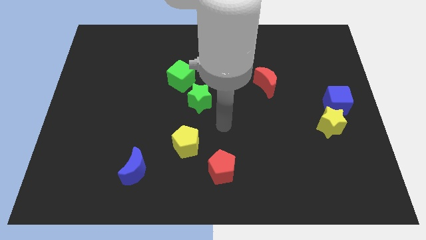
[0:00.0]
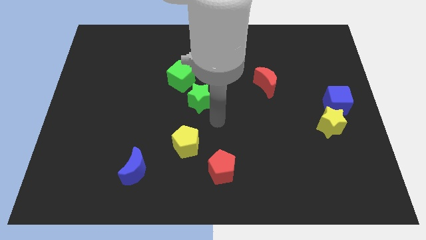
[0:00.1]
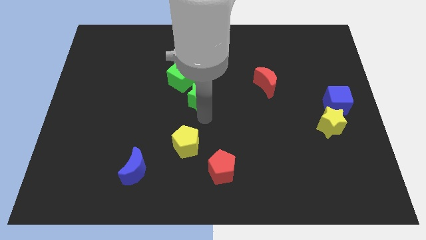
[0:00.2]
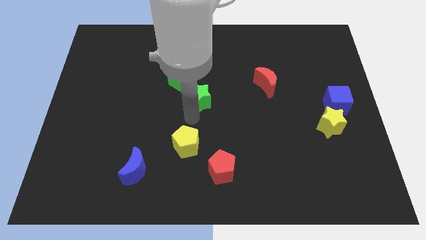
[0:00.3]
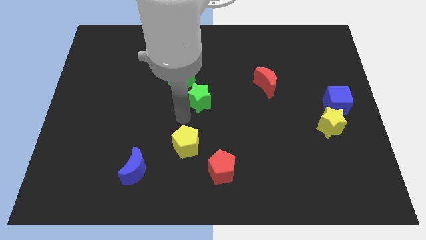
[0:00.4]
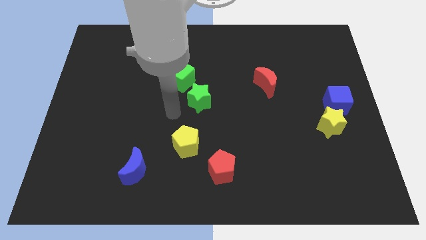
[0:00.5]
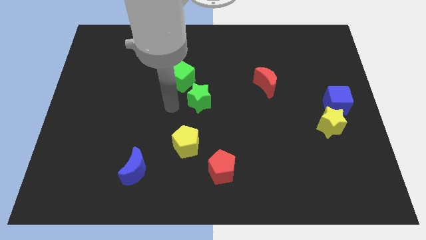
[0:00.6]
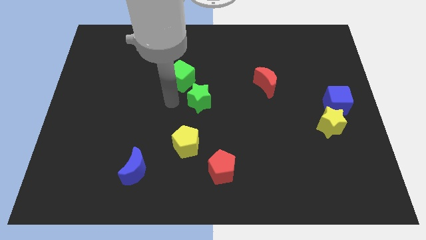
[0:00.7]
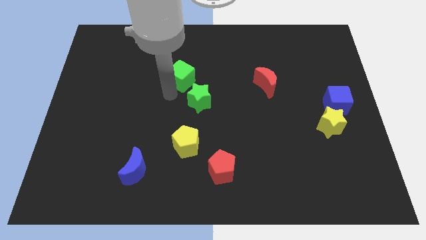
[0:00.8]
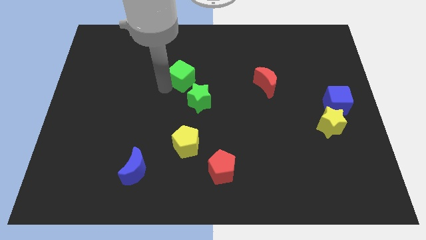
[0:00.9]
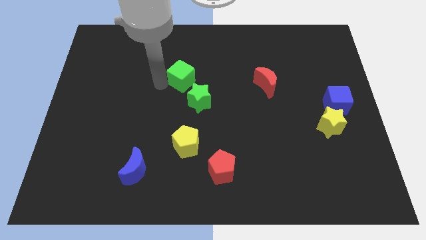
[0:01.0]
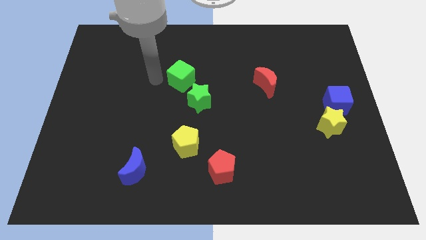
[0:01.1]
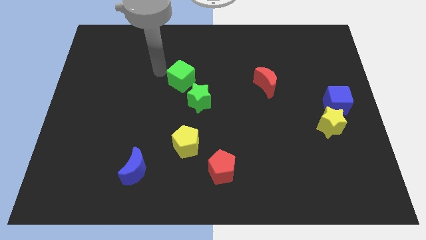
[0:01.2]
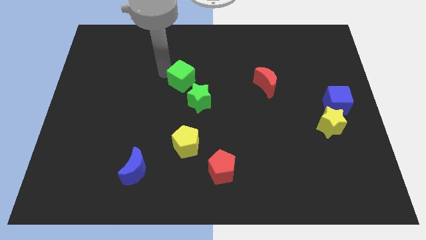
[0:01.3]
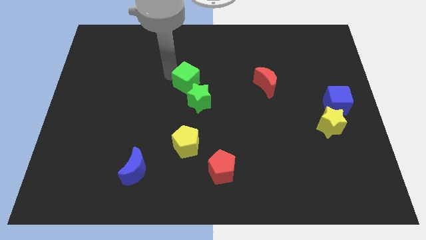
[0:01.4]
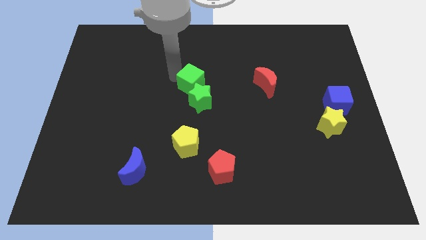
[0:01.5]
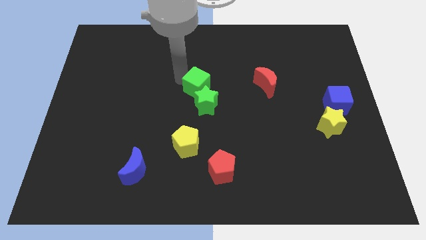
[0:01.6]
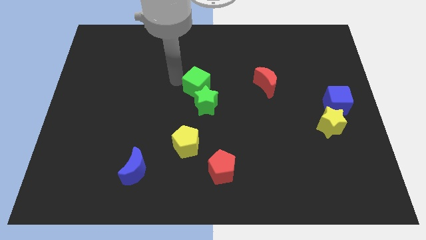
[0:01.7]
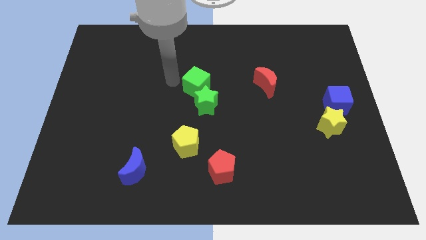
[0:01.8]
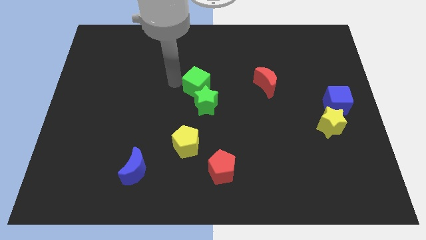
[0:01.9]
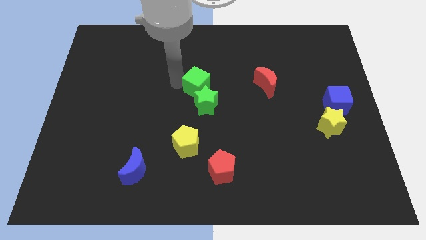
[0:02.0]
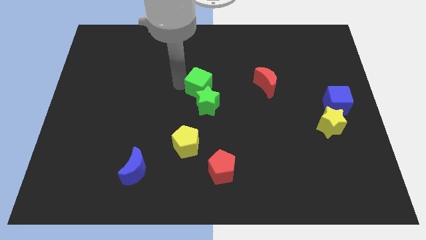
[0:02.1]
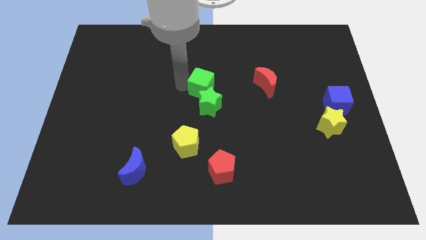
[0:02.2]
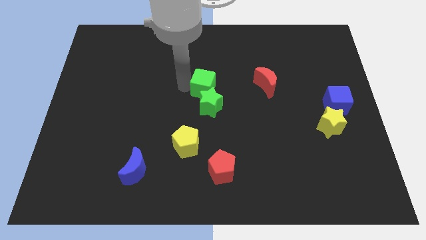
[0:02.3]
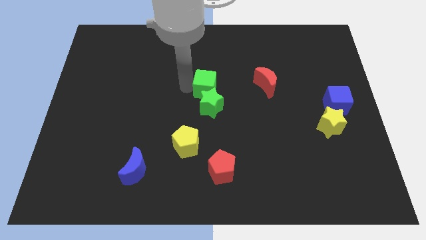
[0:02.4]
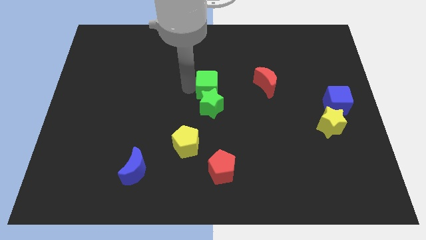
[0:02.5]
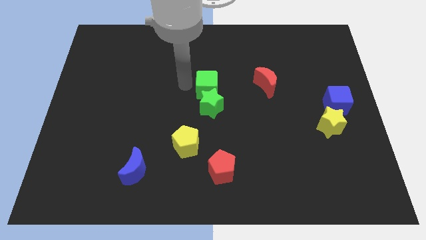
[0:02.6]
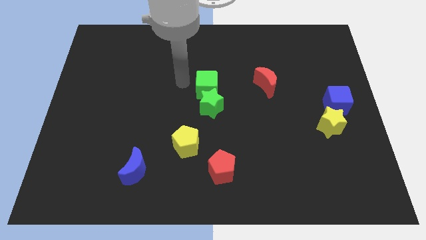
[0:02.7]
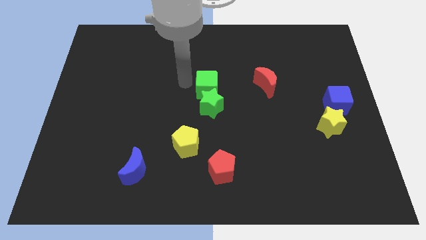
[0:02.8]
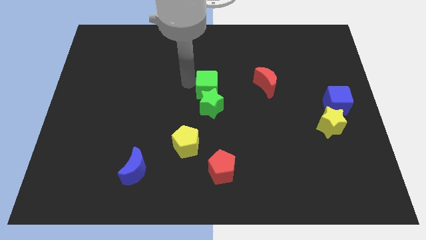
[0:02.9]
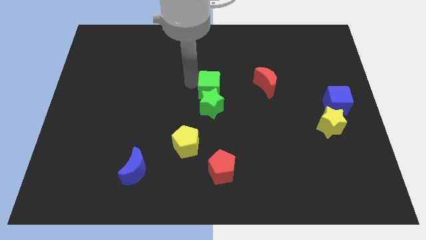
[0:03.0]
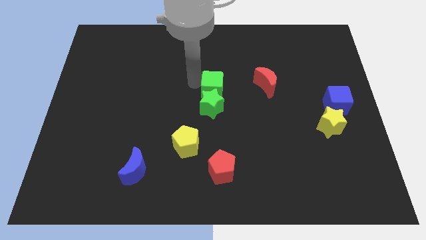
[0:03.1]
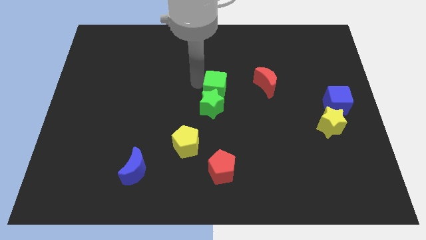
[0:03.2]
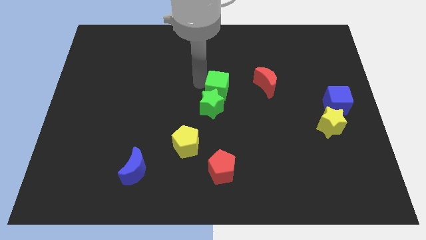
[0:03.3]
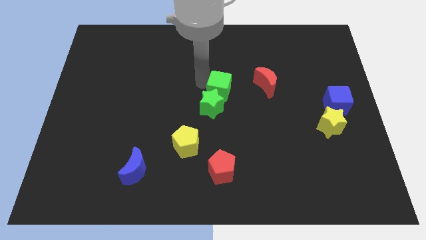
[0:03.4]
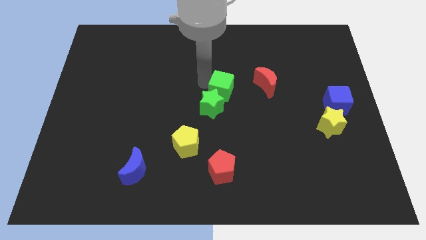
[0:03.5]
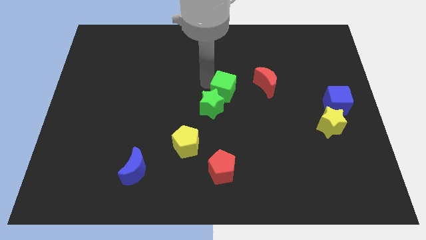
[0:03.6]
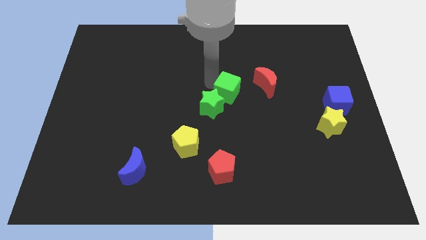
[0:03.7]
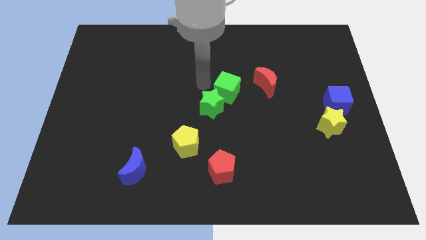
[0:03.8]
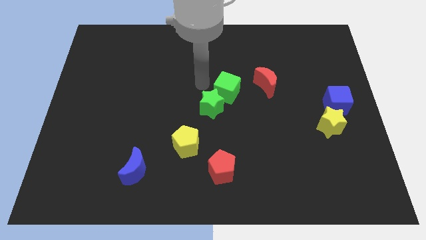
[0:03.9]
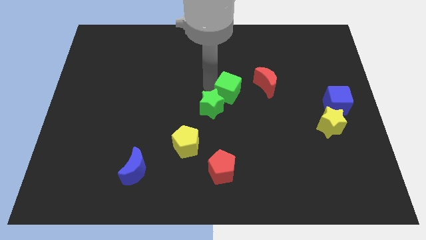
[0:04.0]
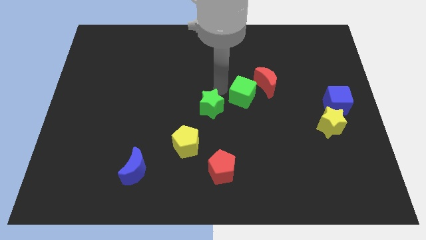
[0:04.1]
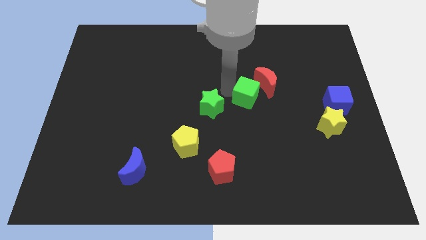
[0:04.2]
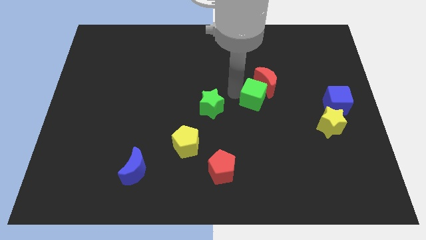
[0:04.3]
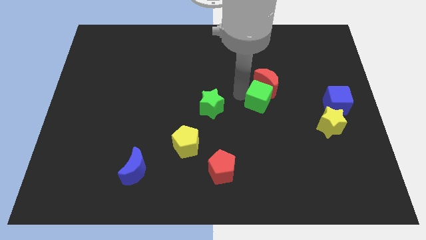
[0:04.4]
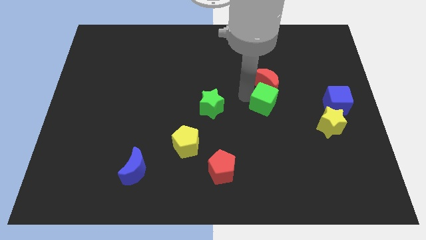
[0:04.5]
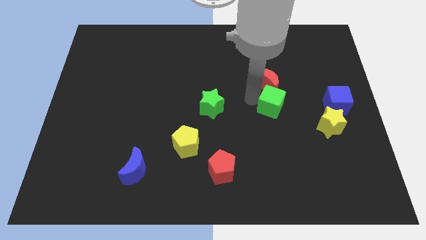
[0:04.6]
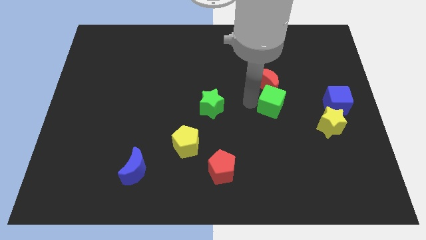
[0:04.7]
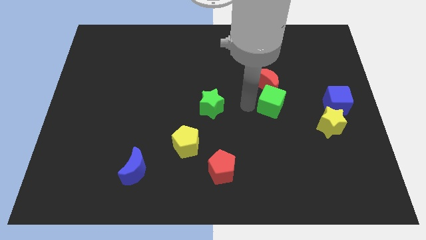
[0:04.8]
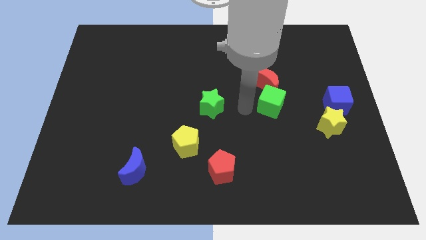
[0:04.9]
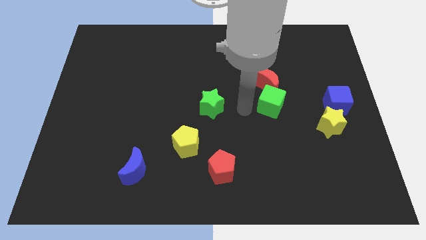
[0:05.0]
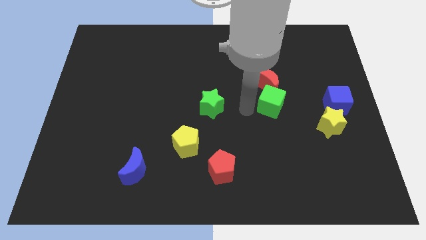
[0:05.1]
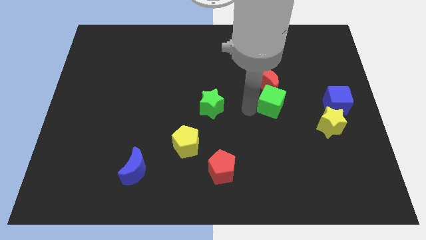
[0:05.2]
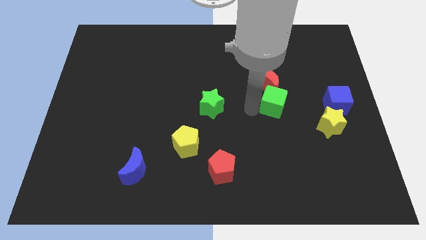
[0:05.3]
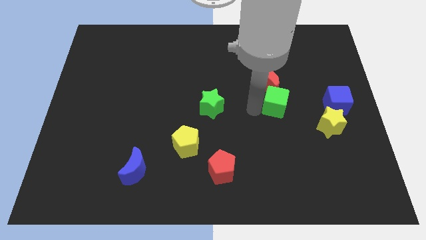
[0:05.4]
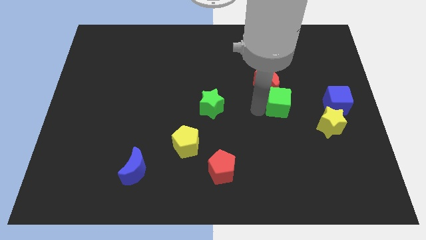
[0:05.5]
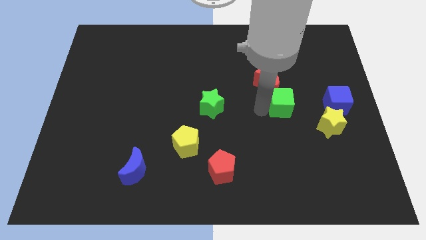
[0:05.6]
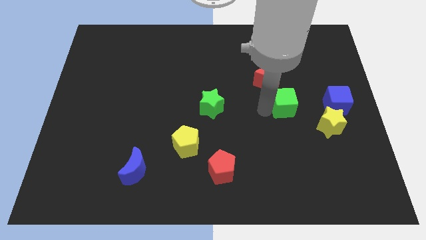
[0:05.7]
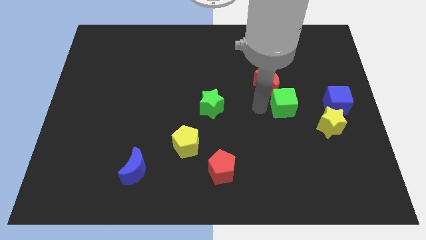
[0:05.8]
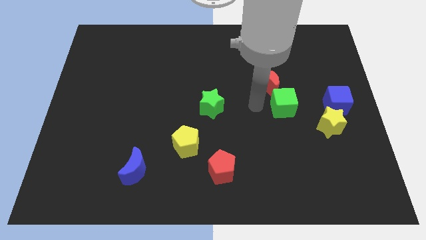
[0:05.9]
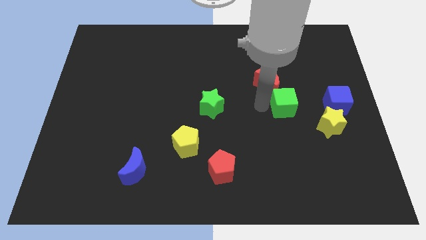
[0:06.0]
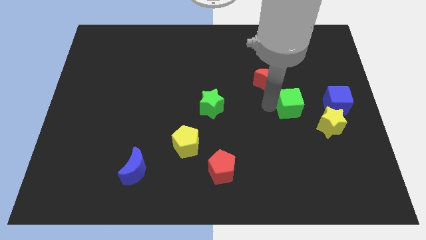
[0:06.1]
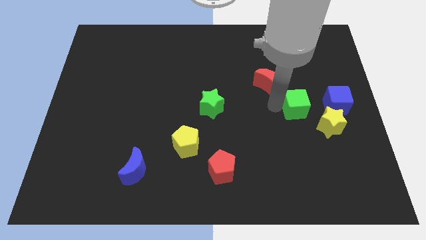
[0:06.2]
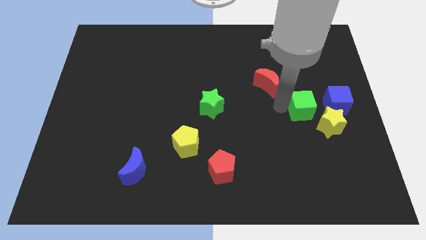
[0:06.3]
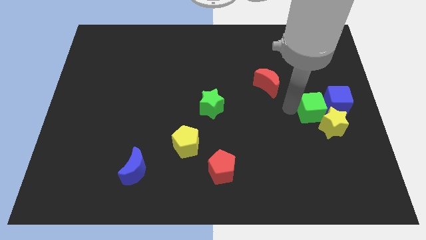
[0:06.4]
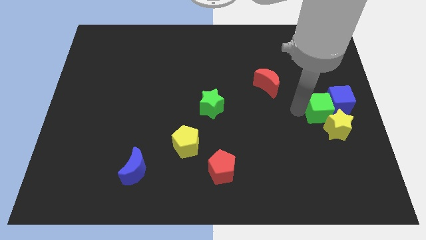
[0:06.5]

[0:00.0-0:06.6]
put the green cube next to the blue cube
